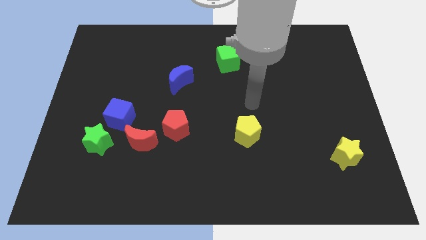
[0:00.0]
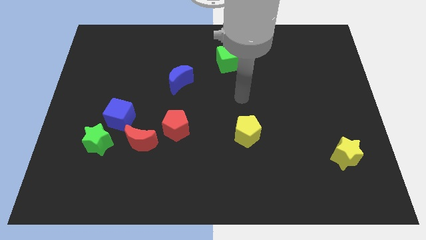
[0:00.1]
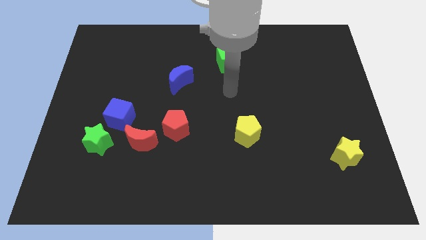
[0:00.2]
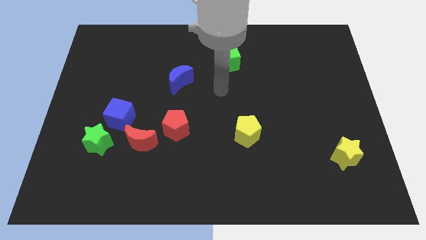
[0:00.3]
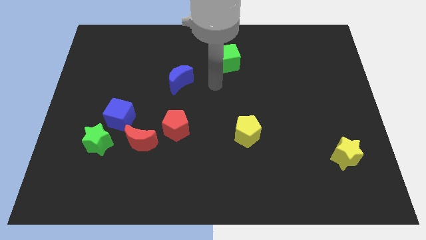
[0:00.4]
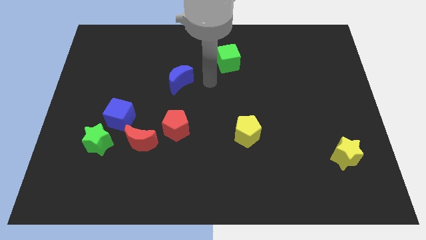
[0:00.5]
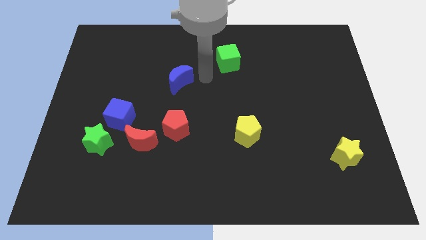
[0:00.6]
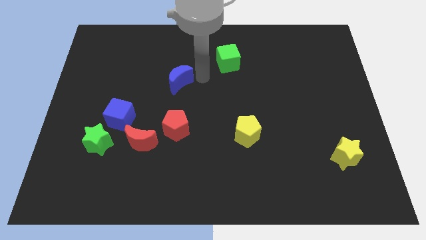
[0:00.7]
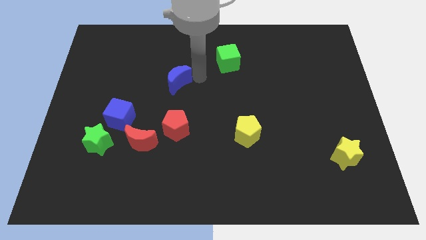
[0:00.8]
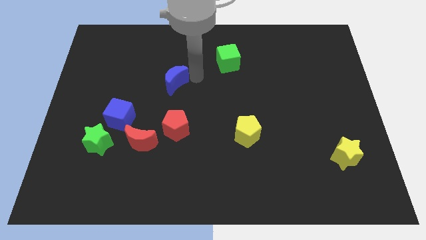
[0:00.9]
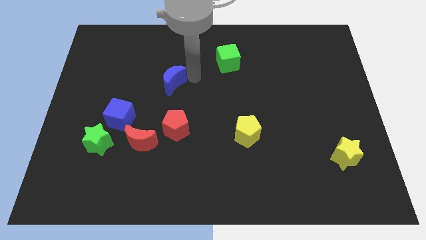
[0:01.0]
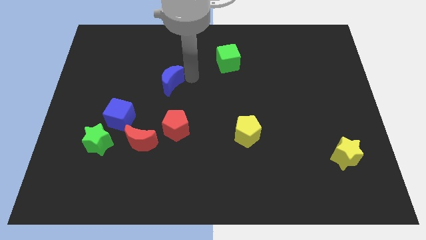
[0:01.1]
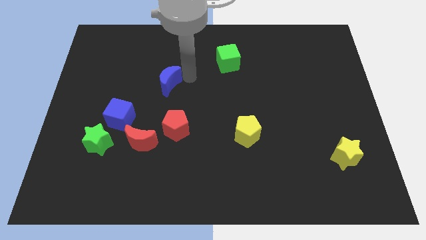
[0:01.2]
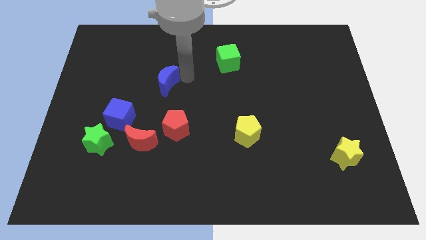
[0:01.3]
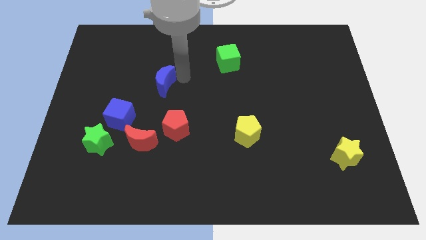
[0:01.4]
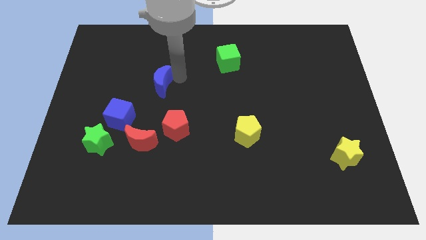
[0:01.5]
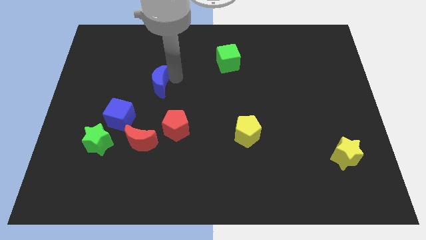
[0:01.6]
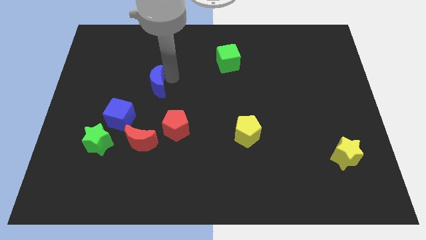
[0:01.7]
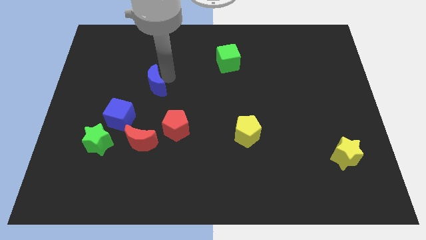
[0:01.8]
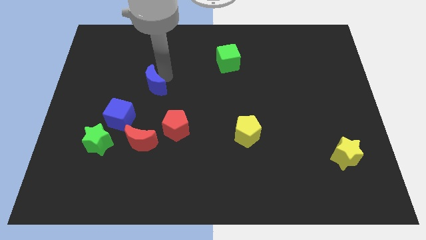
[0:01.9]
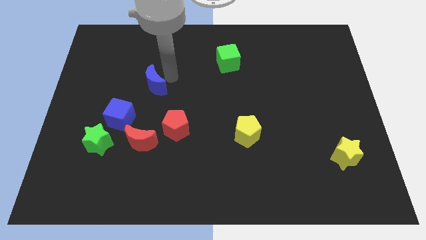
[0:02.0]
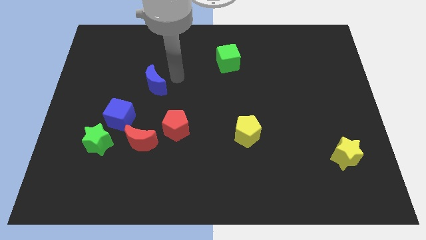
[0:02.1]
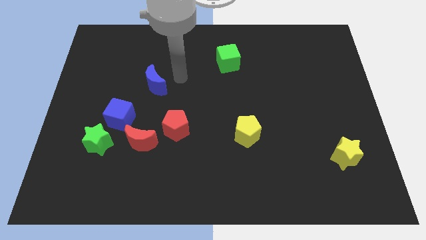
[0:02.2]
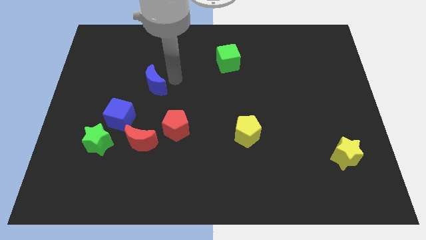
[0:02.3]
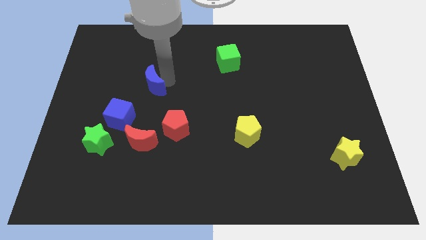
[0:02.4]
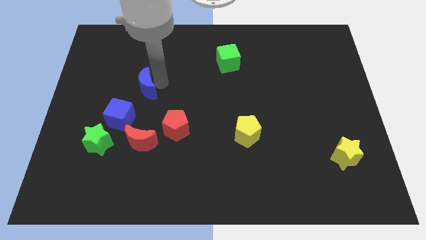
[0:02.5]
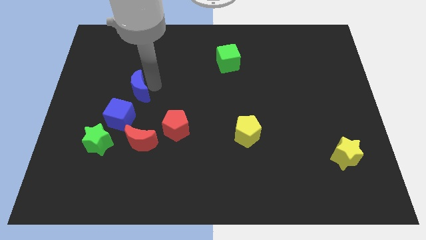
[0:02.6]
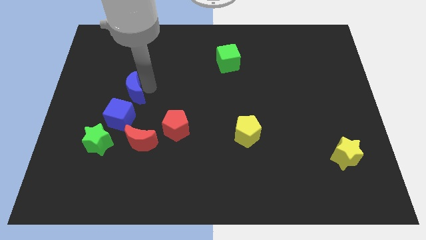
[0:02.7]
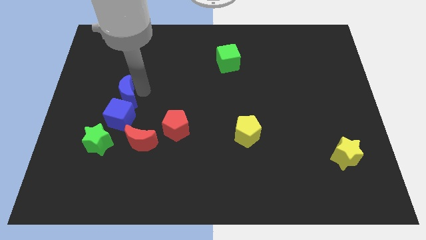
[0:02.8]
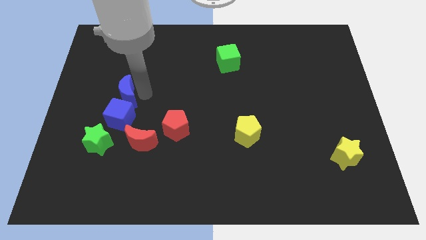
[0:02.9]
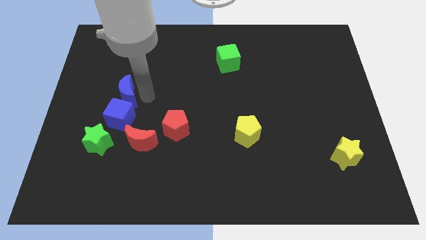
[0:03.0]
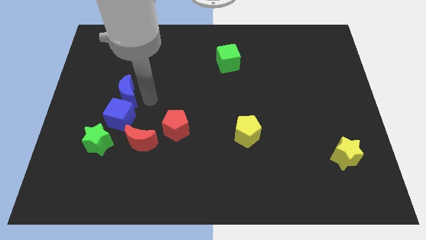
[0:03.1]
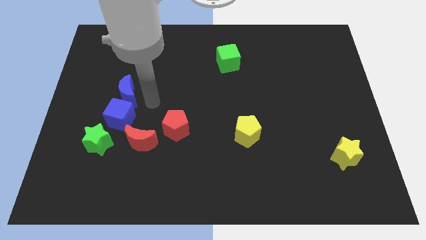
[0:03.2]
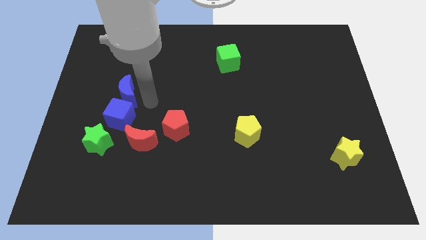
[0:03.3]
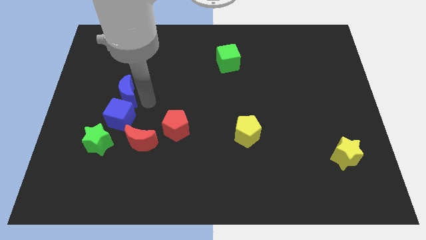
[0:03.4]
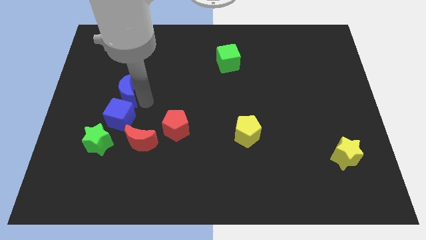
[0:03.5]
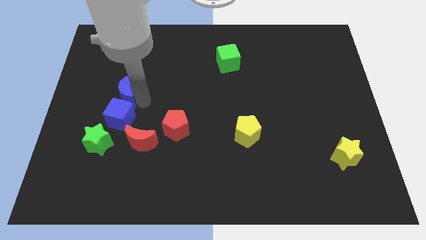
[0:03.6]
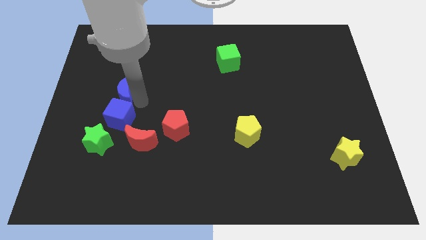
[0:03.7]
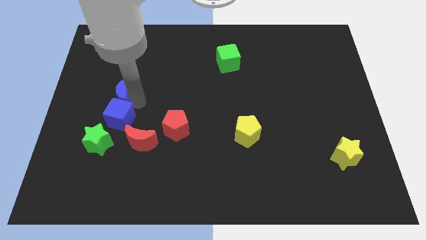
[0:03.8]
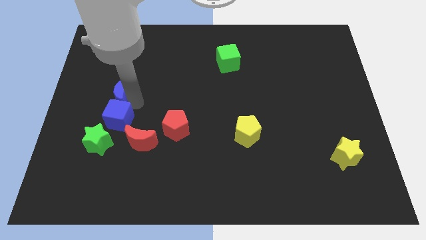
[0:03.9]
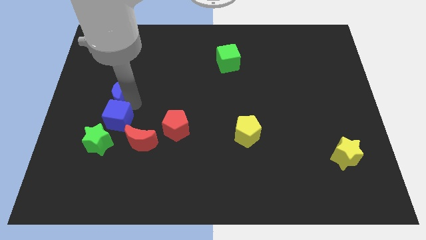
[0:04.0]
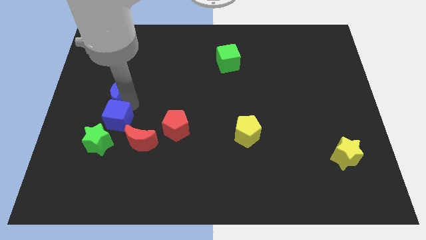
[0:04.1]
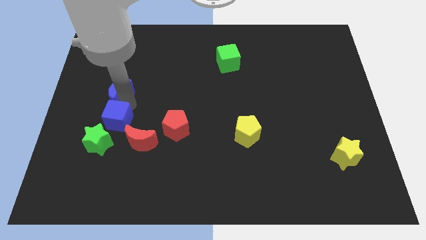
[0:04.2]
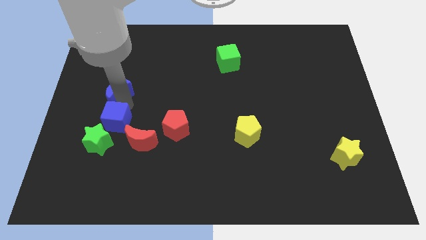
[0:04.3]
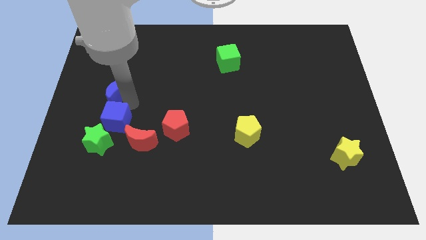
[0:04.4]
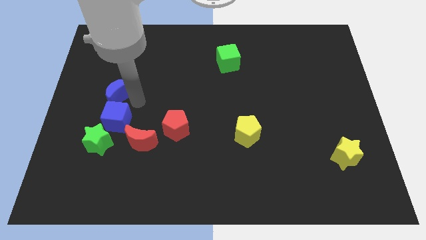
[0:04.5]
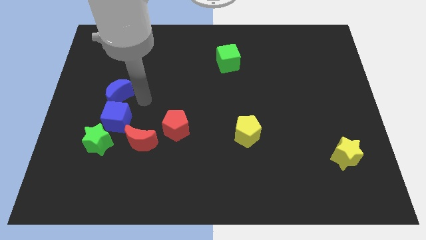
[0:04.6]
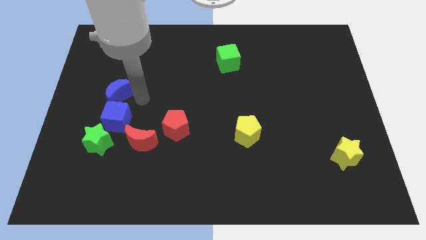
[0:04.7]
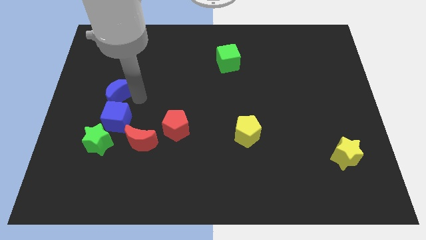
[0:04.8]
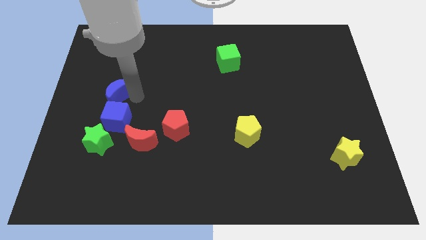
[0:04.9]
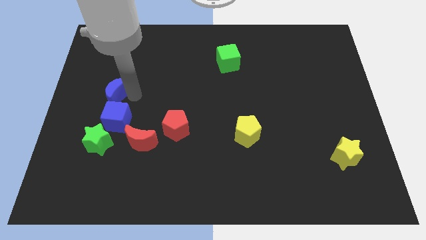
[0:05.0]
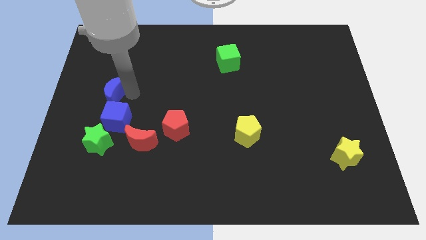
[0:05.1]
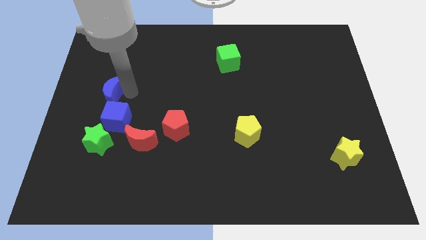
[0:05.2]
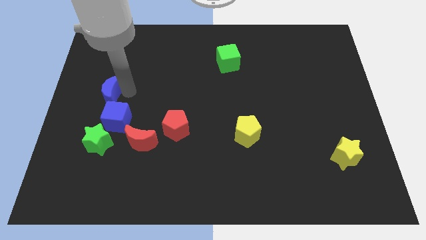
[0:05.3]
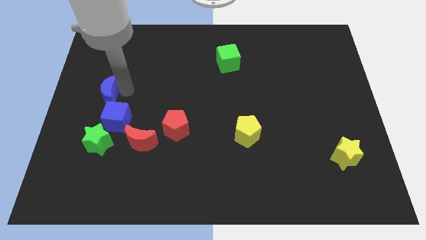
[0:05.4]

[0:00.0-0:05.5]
push the blue moon to the left side of the board

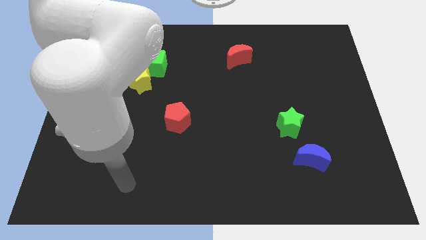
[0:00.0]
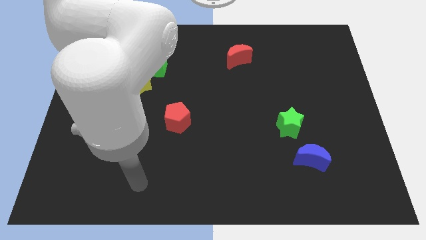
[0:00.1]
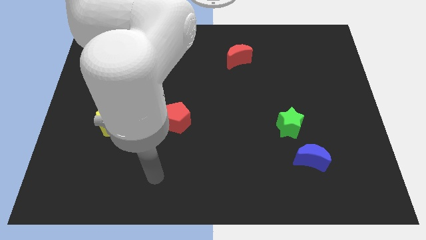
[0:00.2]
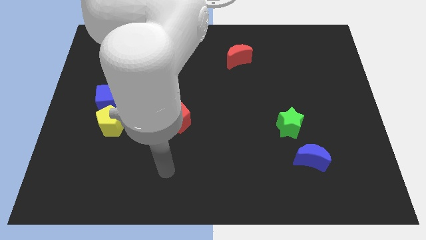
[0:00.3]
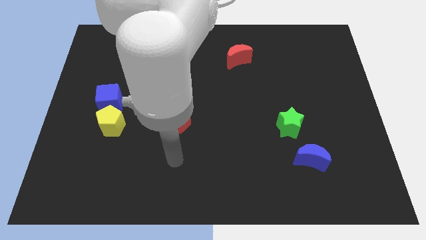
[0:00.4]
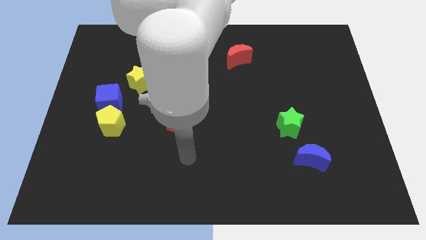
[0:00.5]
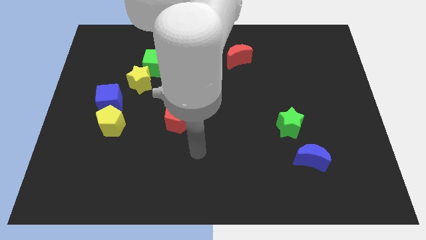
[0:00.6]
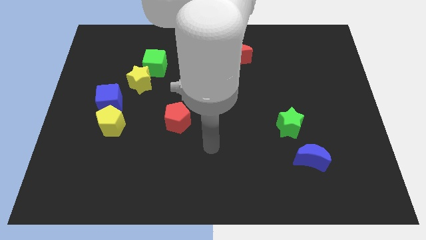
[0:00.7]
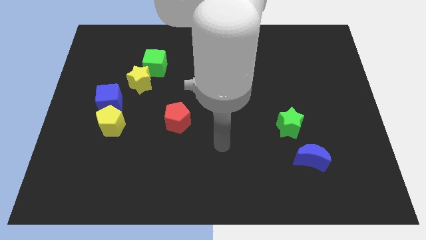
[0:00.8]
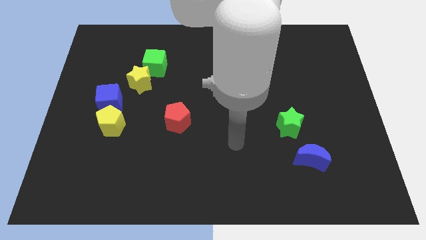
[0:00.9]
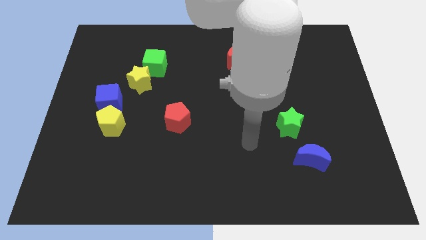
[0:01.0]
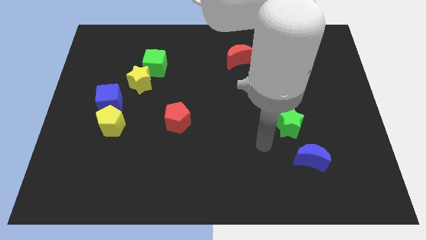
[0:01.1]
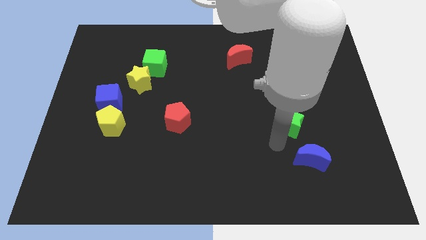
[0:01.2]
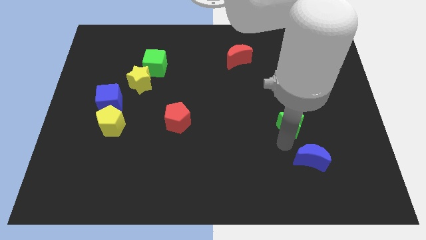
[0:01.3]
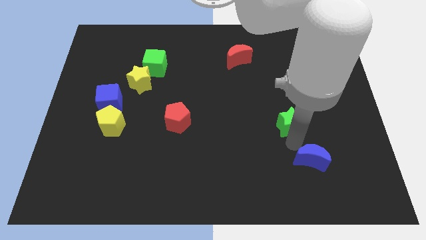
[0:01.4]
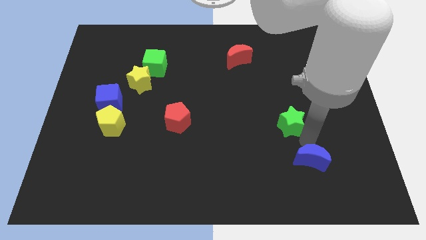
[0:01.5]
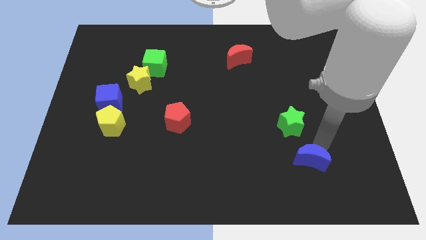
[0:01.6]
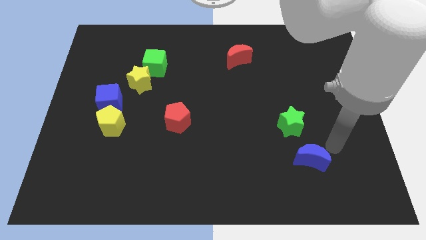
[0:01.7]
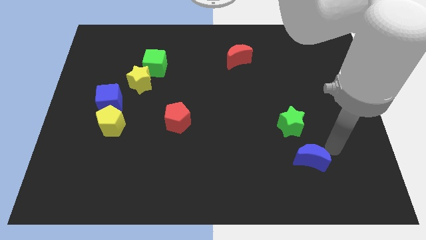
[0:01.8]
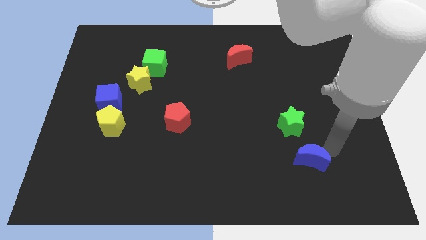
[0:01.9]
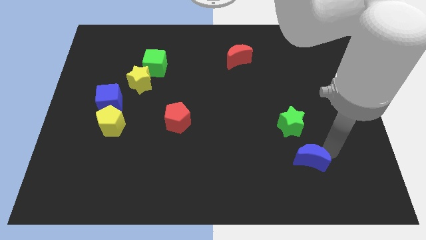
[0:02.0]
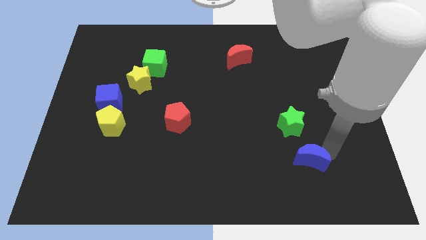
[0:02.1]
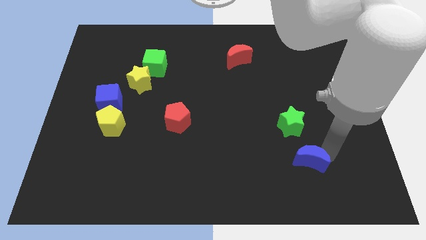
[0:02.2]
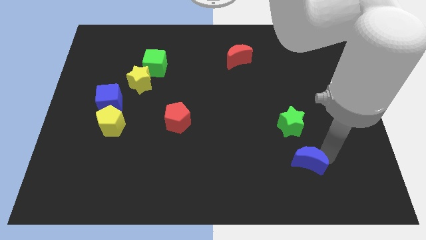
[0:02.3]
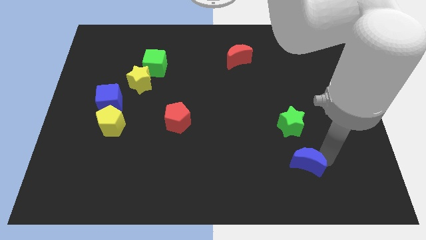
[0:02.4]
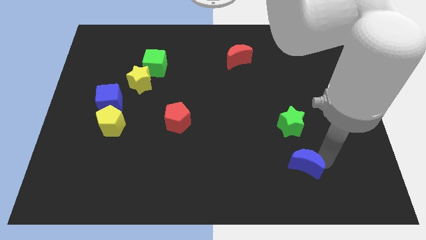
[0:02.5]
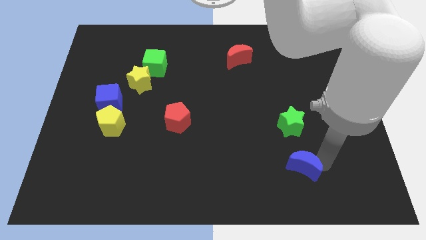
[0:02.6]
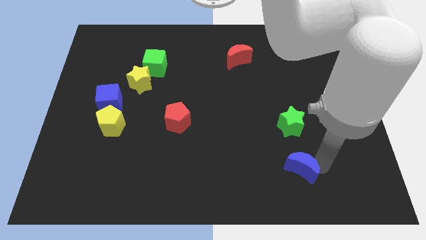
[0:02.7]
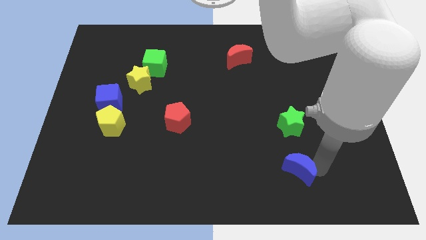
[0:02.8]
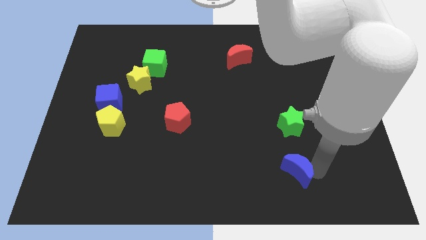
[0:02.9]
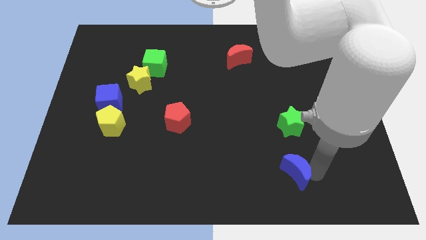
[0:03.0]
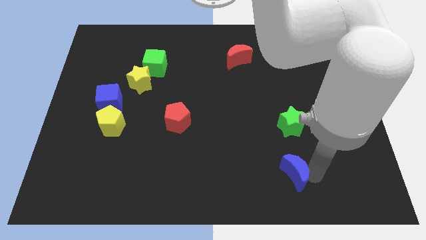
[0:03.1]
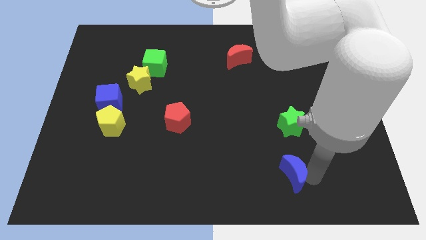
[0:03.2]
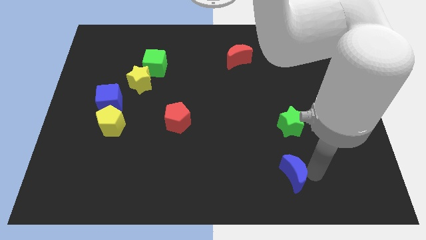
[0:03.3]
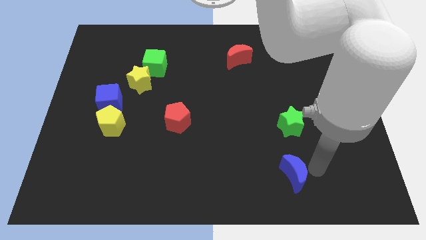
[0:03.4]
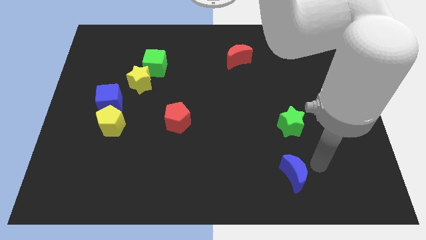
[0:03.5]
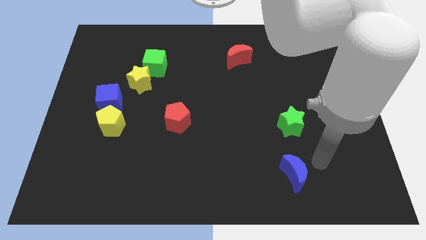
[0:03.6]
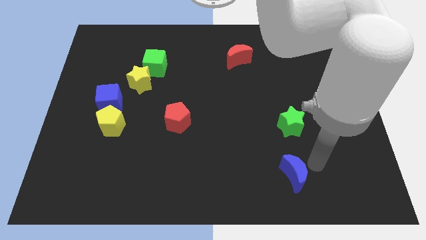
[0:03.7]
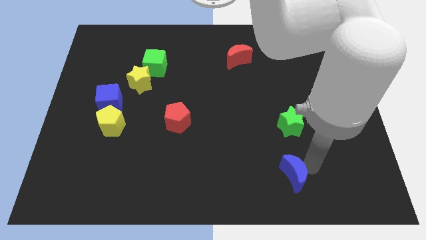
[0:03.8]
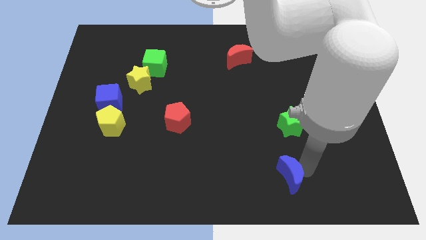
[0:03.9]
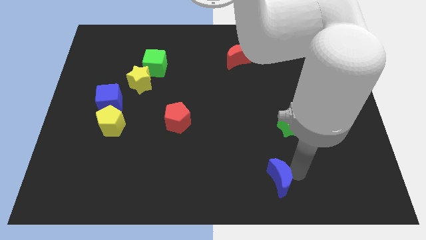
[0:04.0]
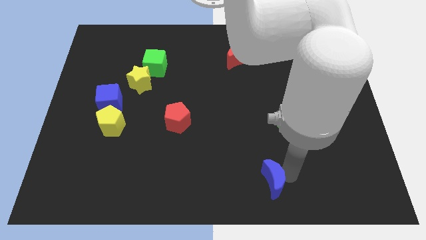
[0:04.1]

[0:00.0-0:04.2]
push the blue moon to the bottom side
